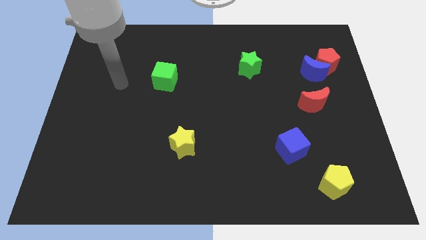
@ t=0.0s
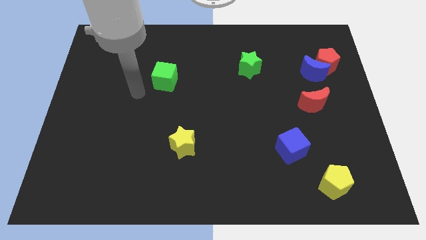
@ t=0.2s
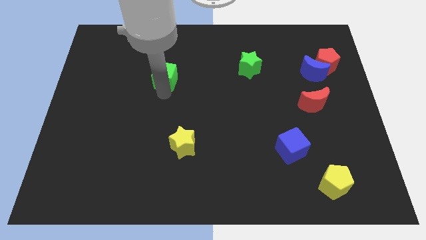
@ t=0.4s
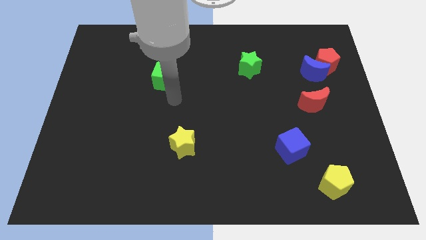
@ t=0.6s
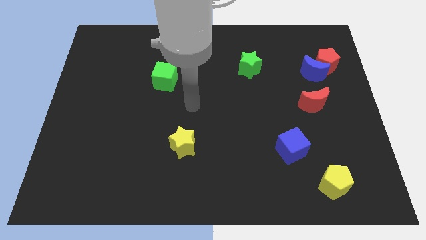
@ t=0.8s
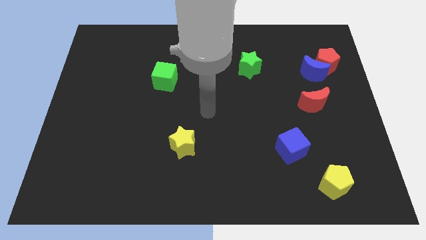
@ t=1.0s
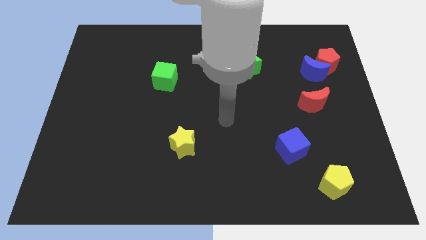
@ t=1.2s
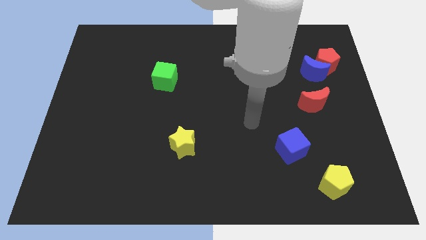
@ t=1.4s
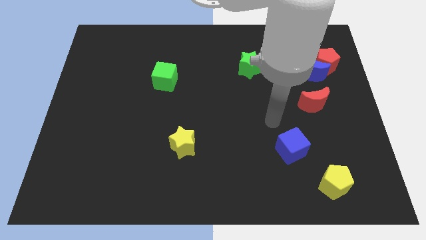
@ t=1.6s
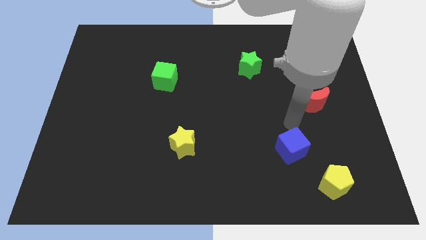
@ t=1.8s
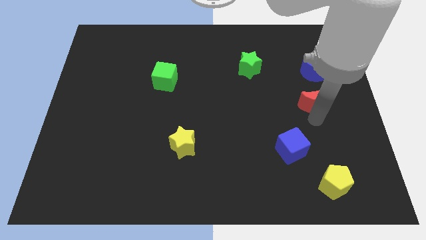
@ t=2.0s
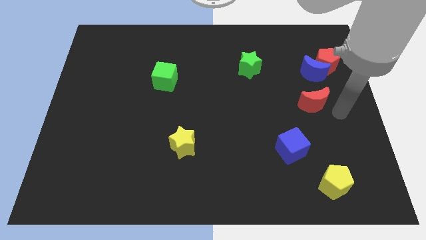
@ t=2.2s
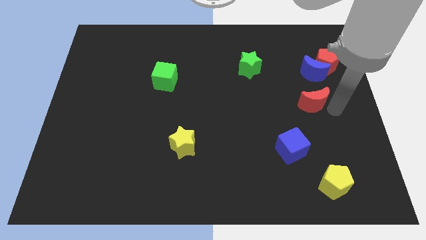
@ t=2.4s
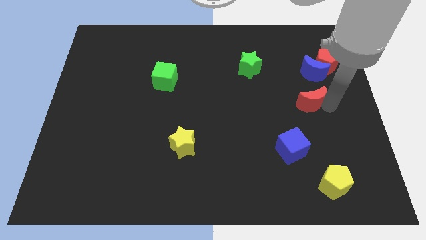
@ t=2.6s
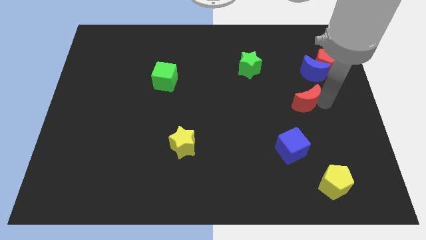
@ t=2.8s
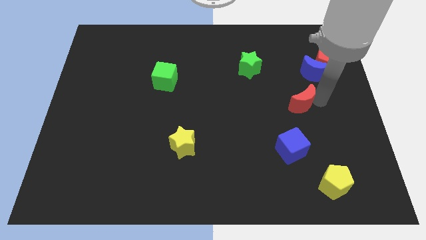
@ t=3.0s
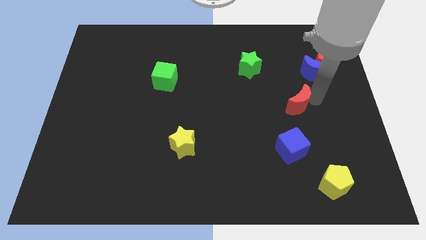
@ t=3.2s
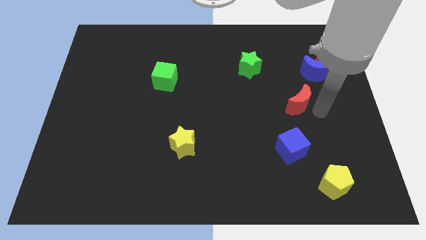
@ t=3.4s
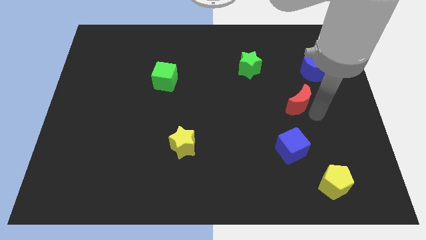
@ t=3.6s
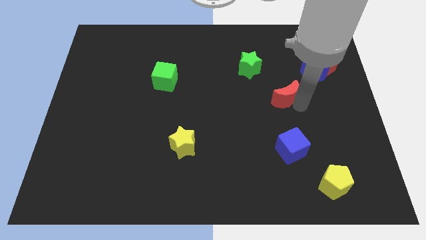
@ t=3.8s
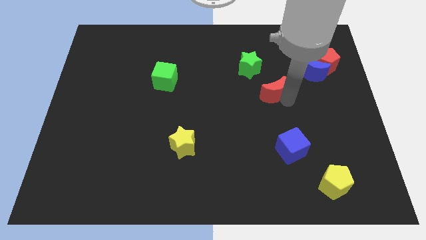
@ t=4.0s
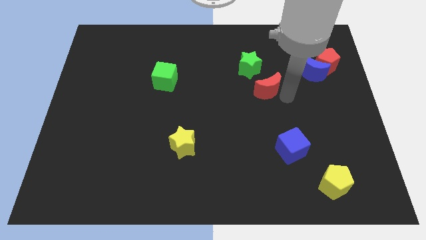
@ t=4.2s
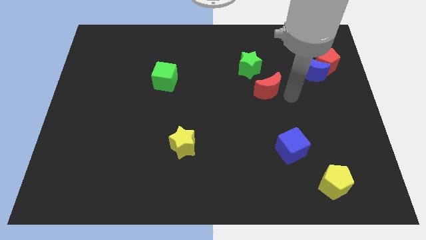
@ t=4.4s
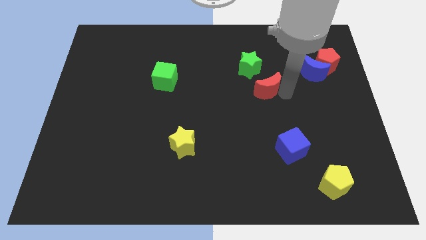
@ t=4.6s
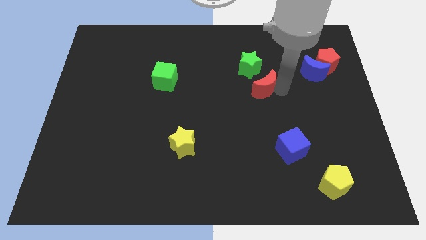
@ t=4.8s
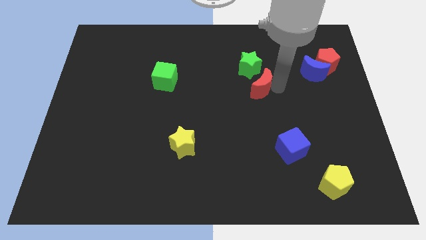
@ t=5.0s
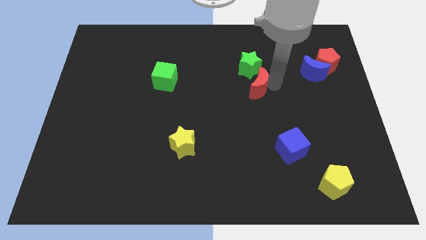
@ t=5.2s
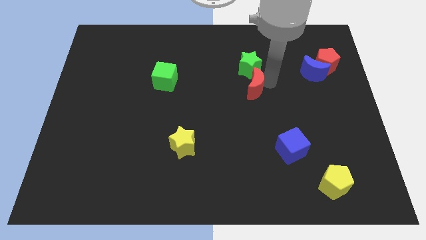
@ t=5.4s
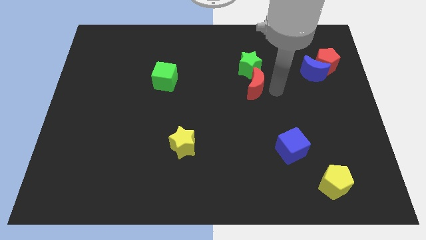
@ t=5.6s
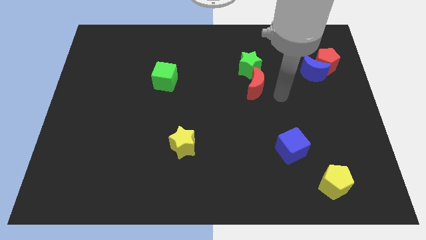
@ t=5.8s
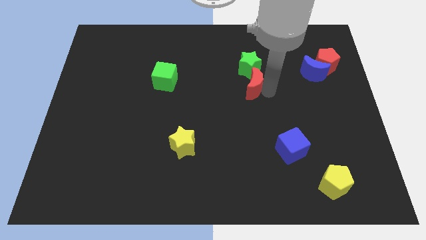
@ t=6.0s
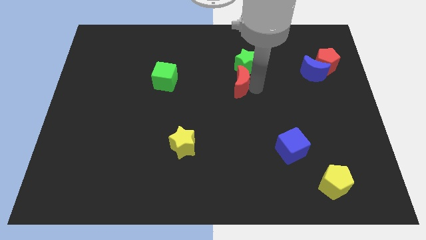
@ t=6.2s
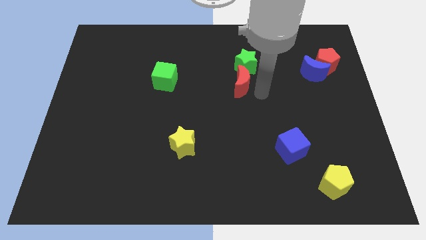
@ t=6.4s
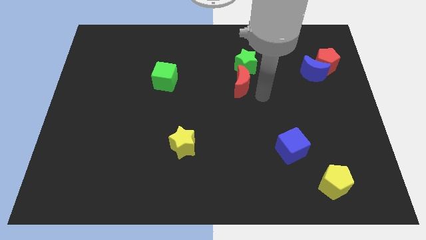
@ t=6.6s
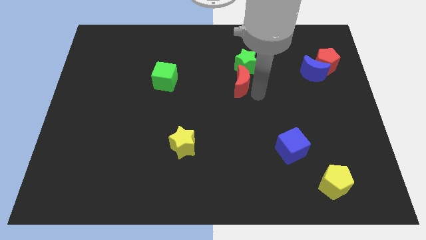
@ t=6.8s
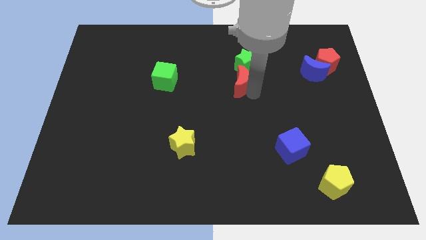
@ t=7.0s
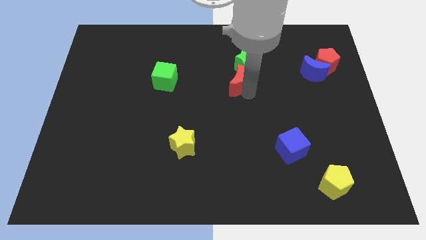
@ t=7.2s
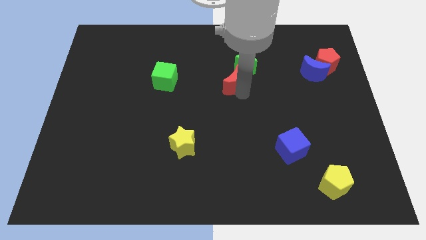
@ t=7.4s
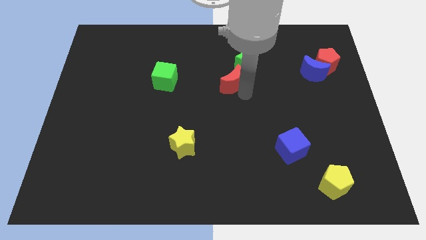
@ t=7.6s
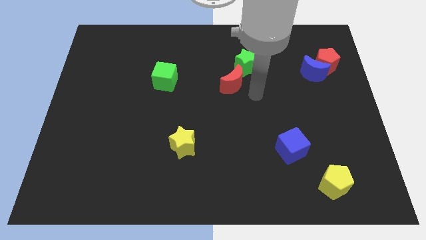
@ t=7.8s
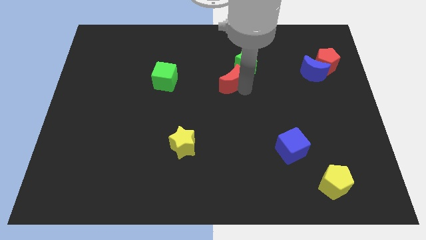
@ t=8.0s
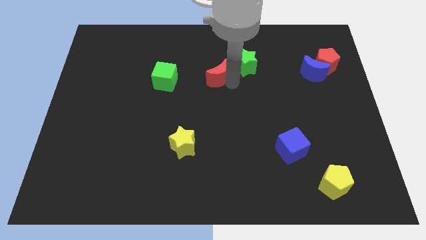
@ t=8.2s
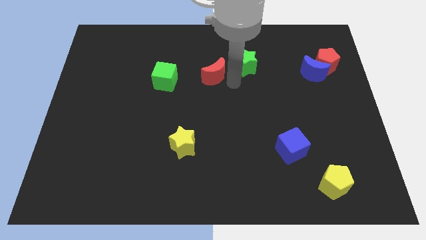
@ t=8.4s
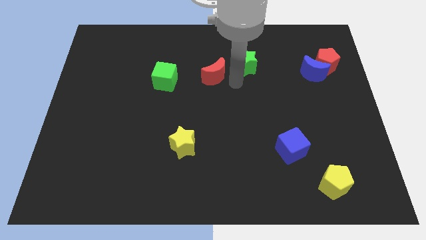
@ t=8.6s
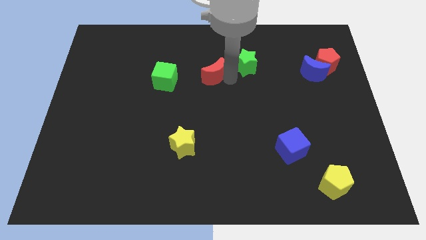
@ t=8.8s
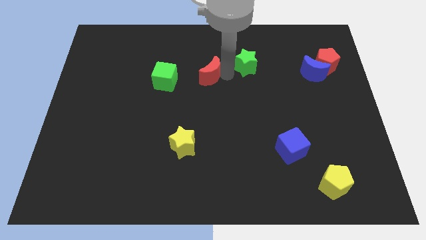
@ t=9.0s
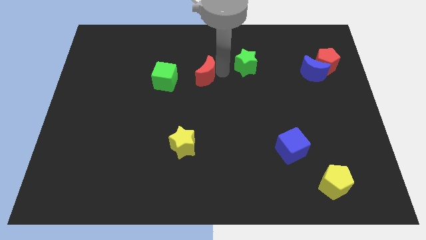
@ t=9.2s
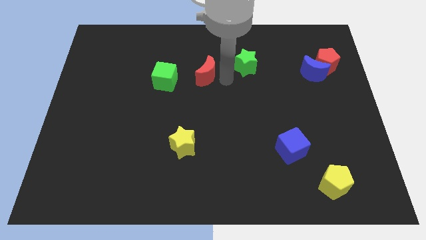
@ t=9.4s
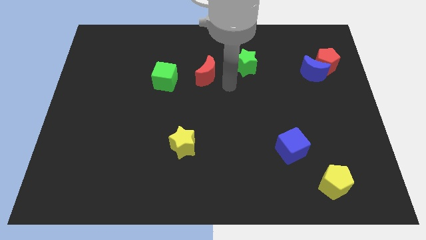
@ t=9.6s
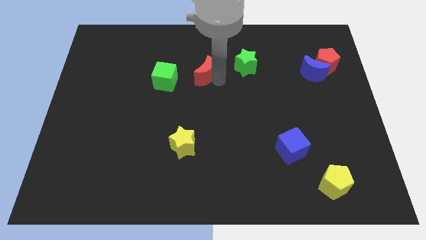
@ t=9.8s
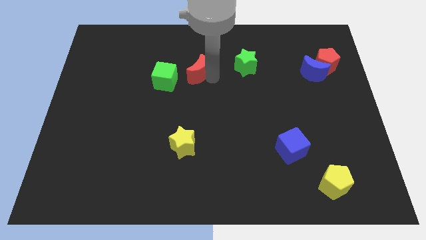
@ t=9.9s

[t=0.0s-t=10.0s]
move the red moon to the top right side of the green cube

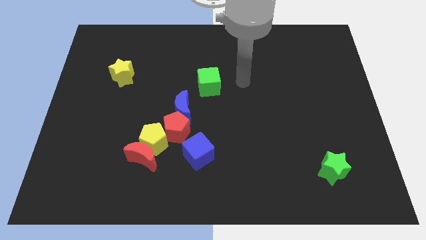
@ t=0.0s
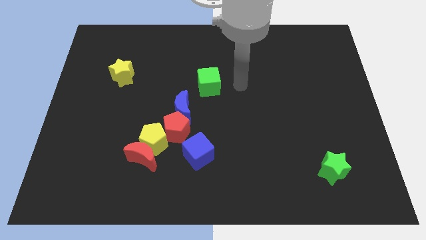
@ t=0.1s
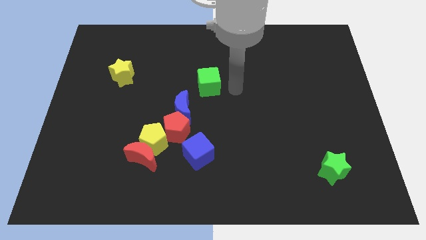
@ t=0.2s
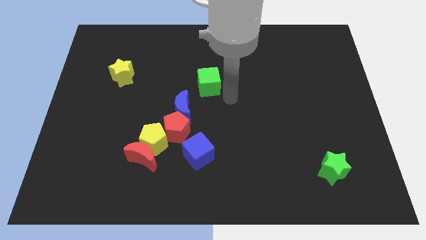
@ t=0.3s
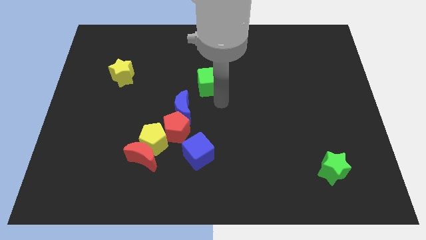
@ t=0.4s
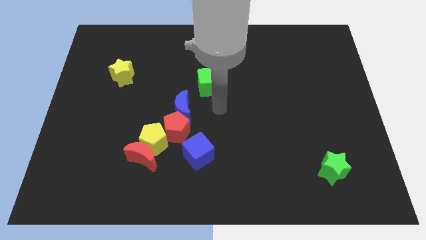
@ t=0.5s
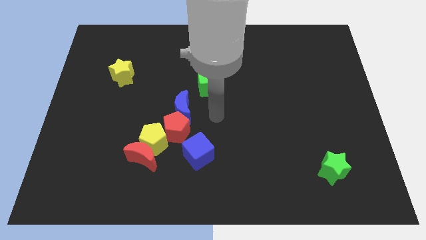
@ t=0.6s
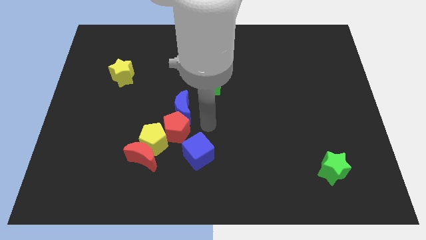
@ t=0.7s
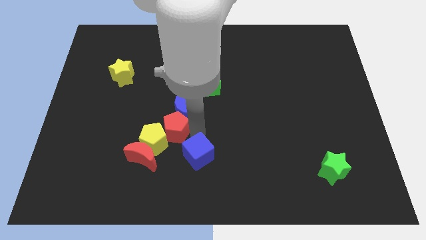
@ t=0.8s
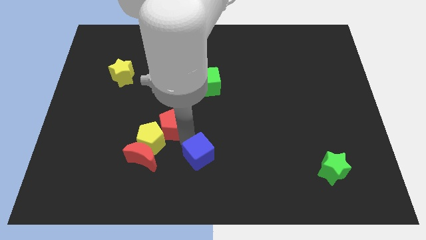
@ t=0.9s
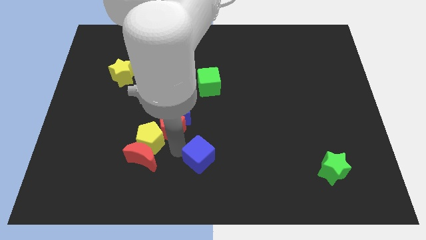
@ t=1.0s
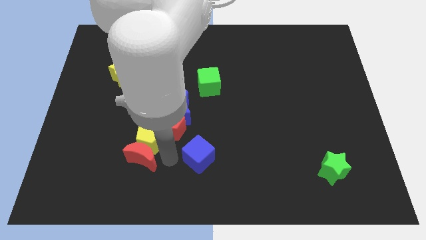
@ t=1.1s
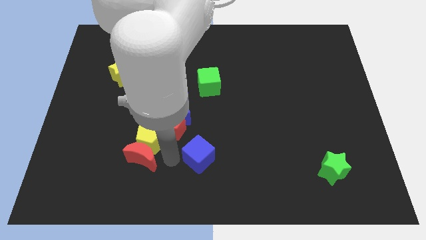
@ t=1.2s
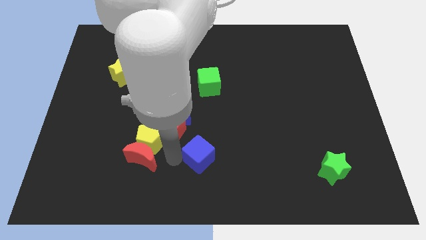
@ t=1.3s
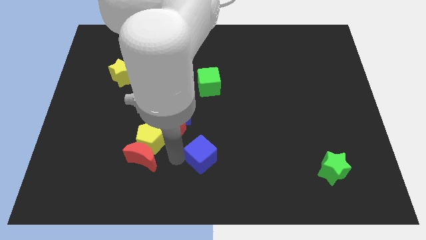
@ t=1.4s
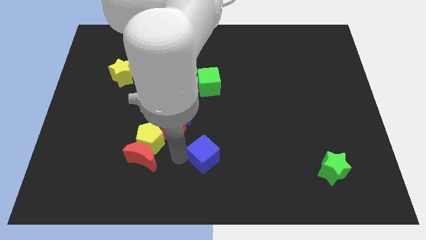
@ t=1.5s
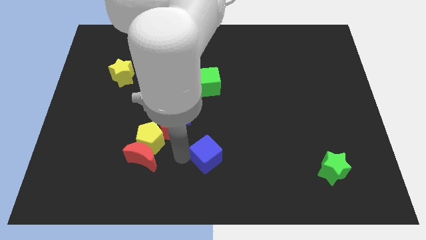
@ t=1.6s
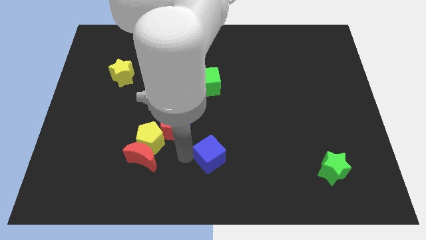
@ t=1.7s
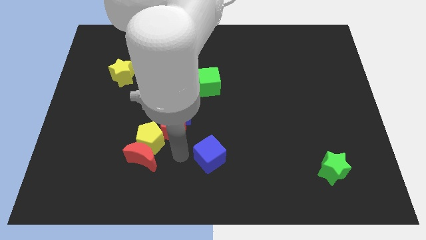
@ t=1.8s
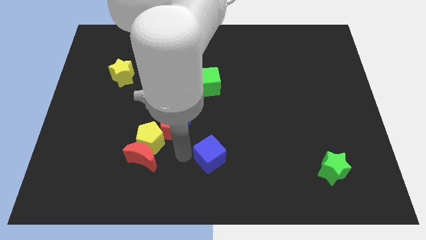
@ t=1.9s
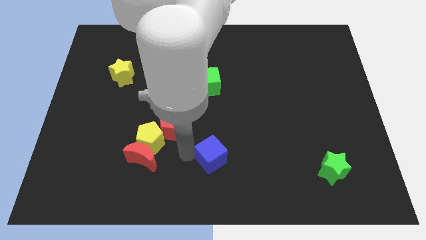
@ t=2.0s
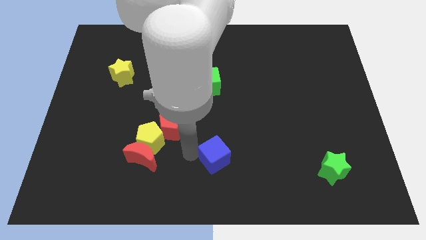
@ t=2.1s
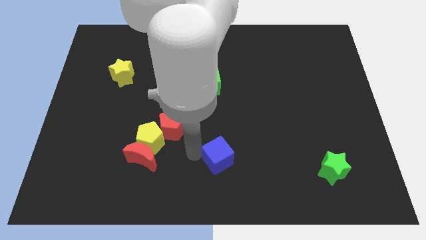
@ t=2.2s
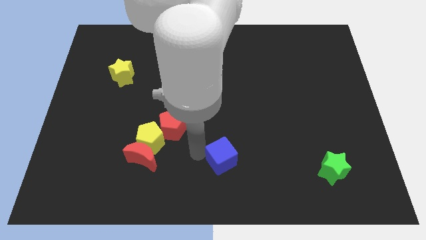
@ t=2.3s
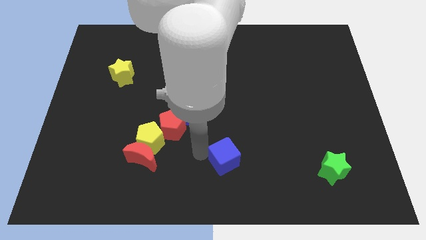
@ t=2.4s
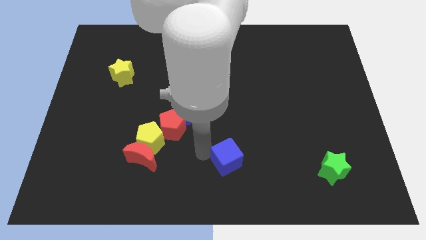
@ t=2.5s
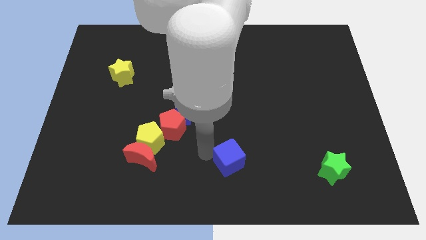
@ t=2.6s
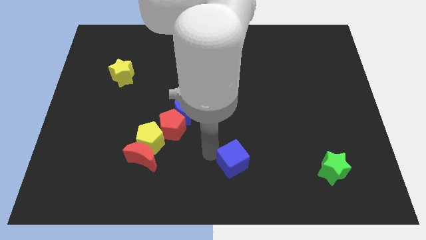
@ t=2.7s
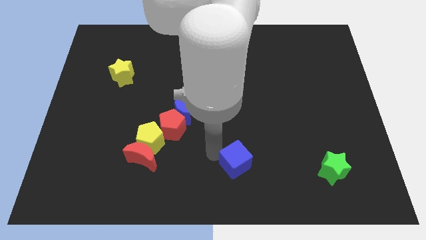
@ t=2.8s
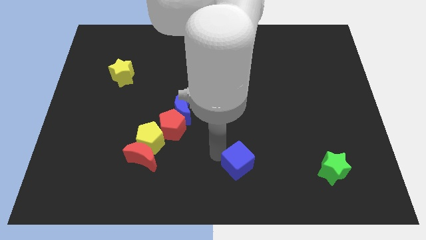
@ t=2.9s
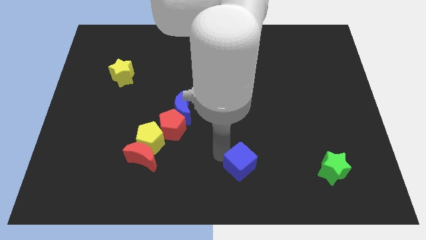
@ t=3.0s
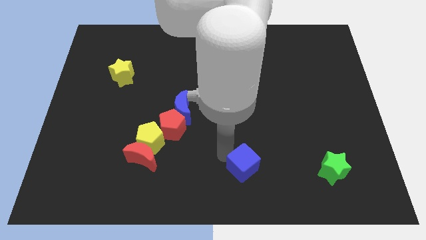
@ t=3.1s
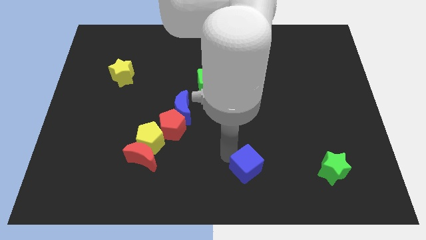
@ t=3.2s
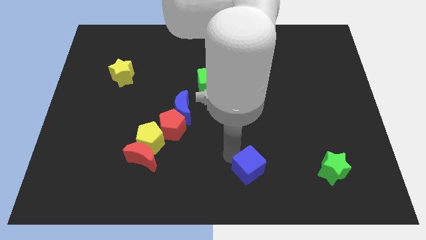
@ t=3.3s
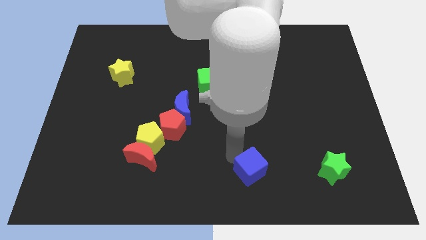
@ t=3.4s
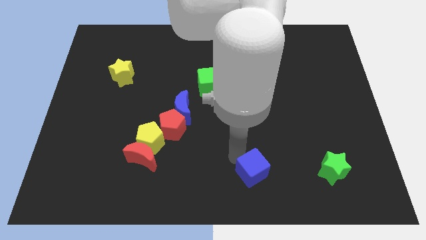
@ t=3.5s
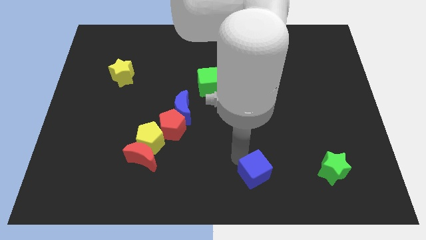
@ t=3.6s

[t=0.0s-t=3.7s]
move the blue cube to the left side of the green star
